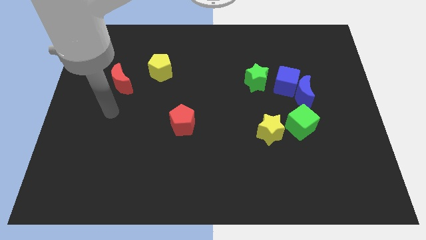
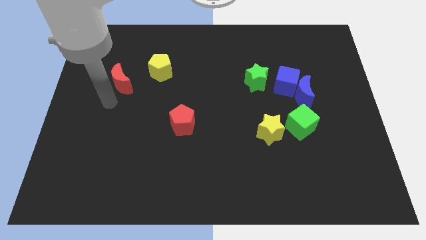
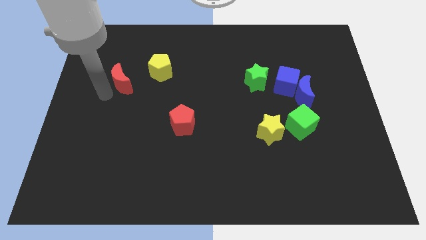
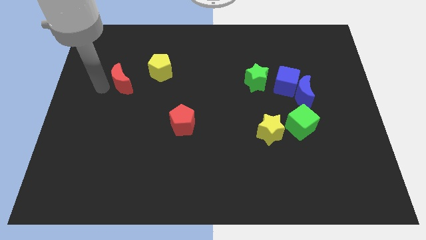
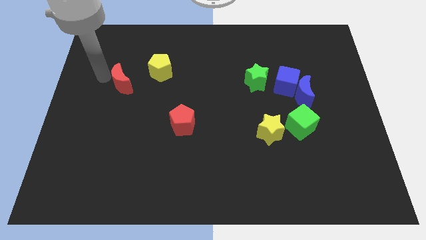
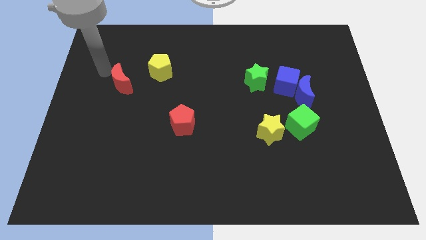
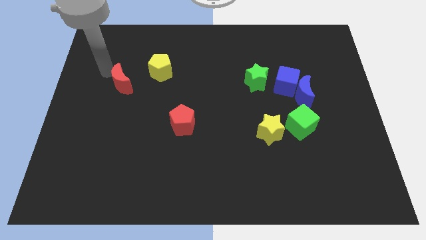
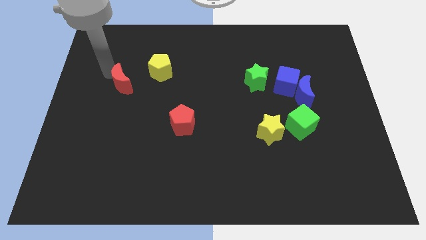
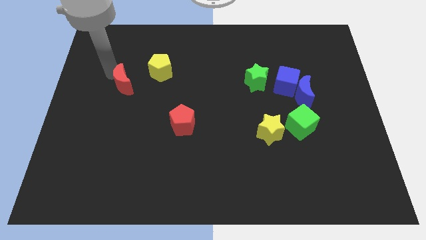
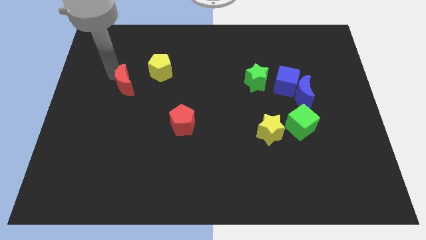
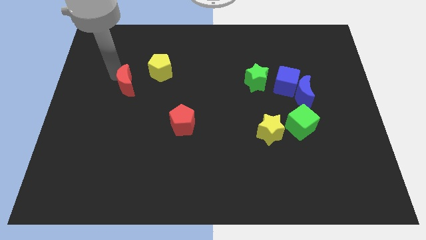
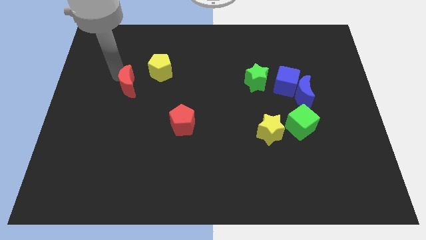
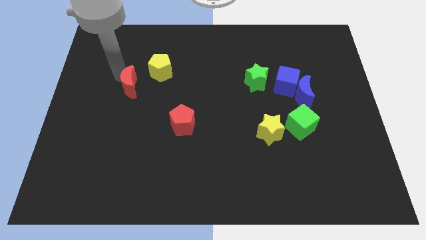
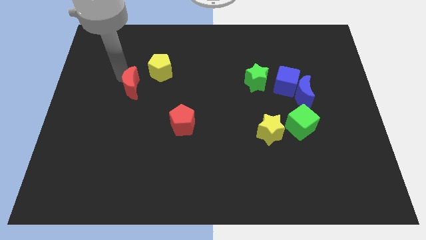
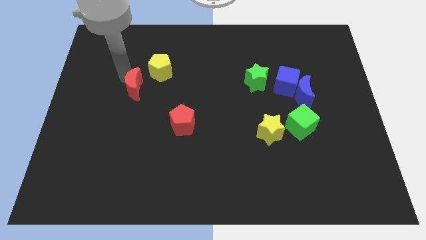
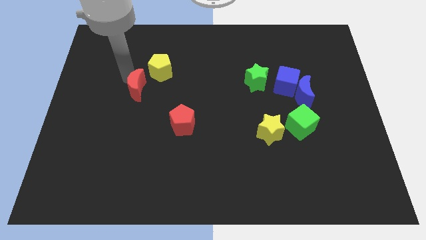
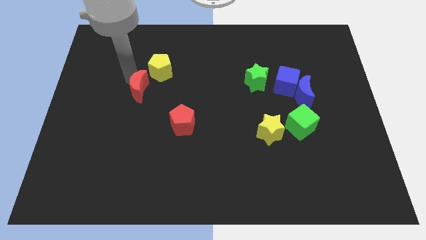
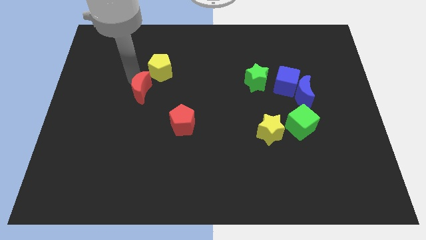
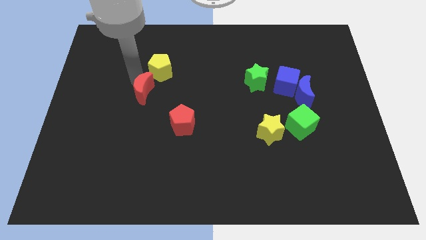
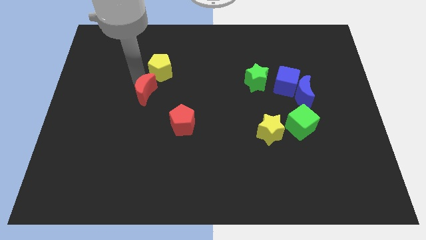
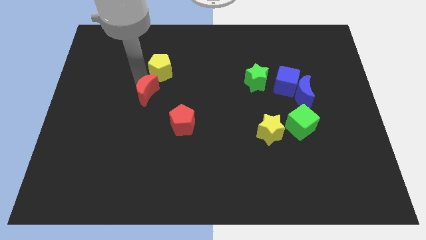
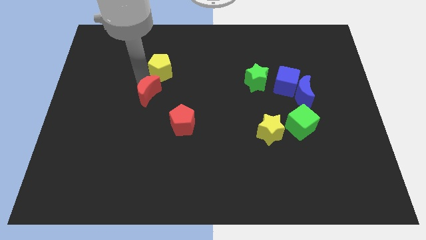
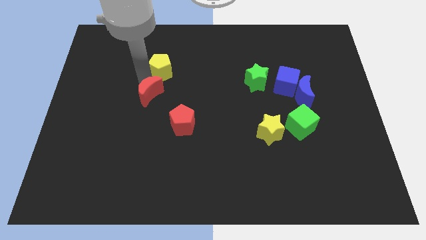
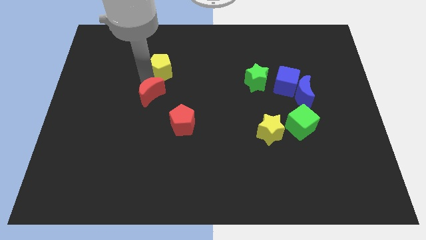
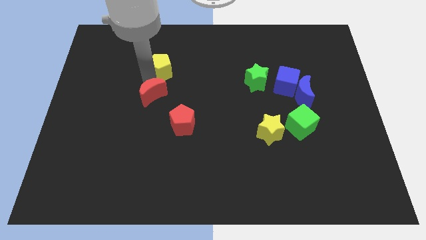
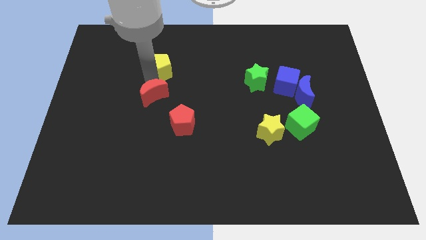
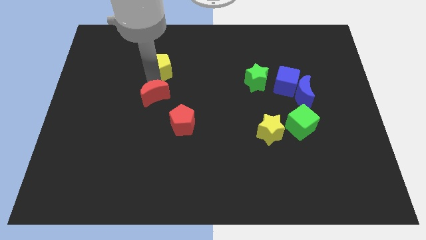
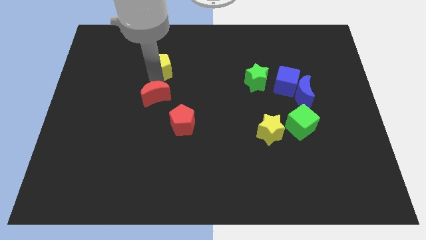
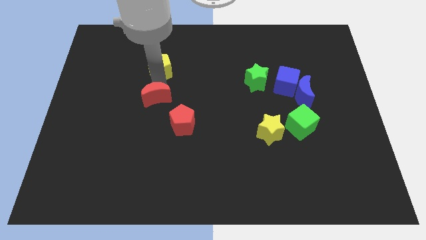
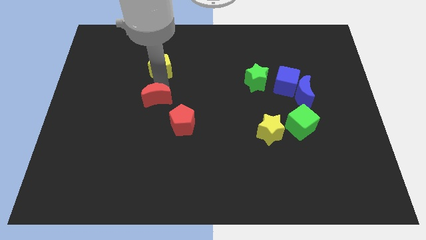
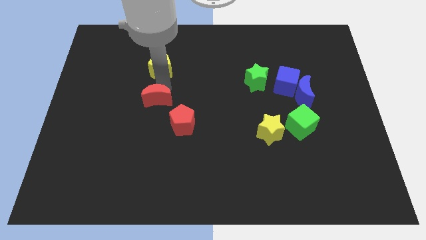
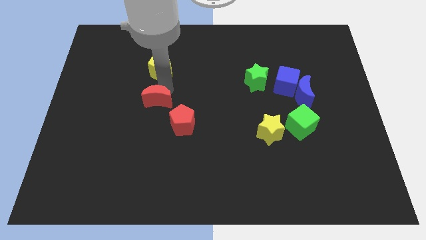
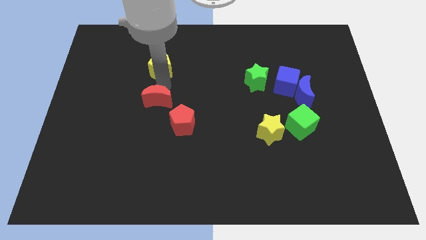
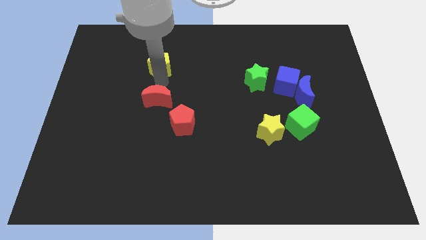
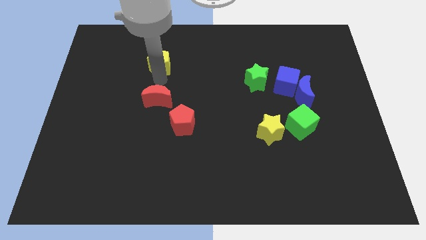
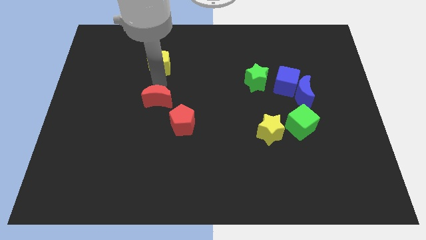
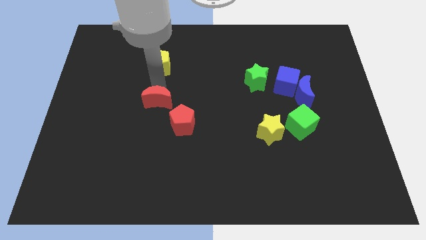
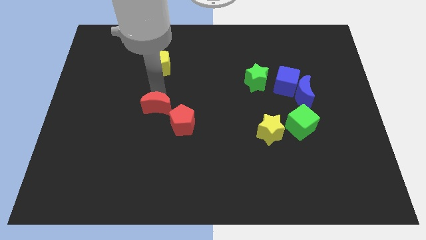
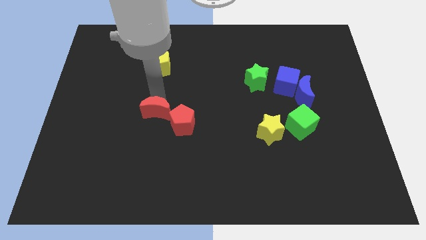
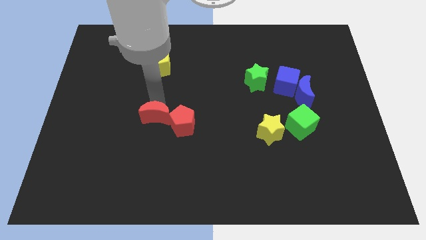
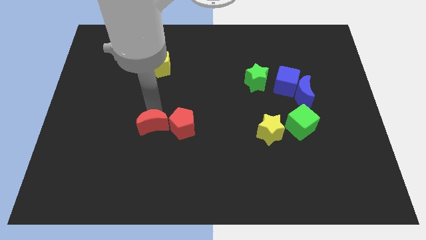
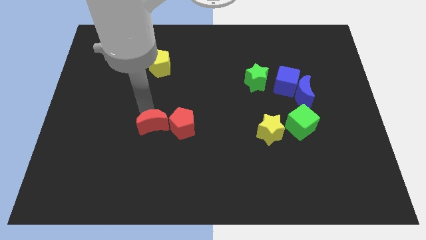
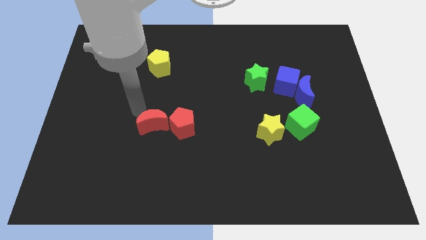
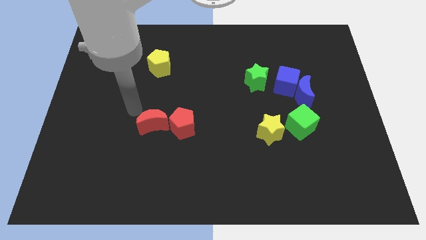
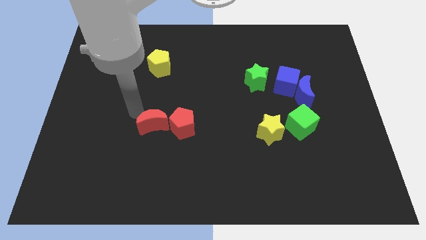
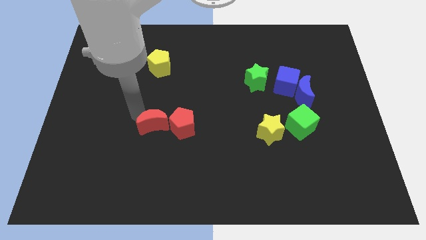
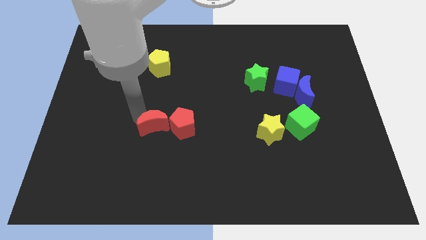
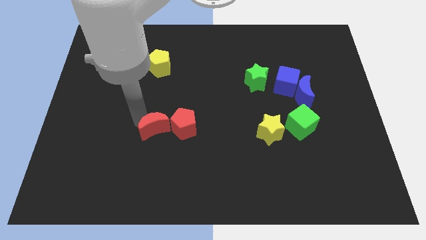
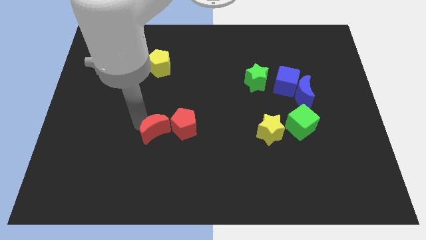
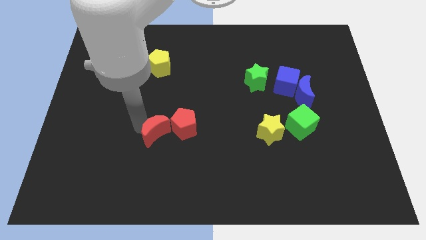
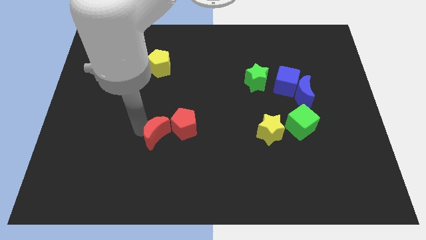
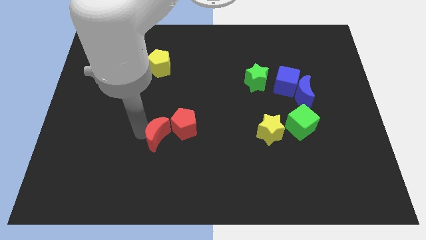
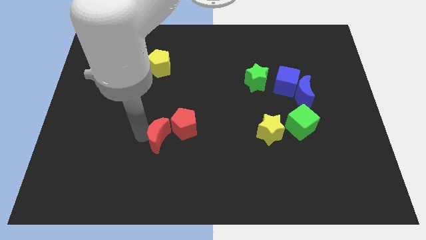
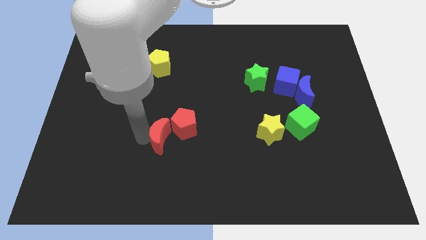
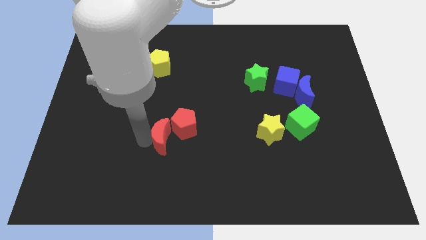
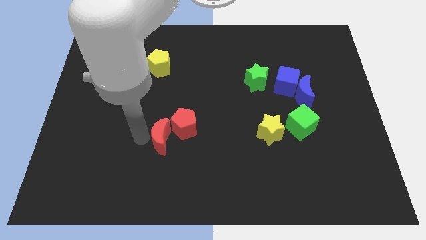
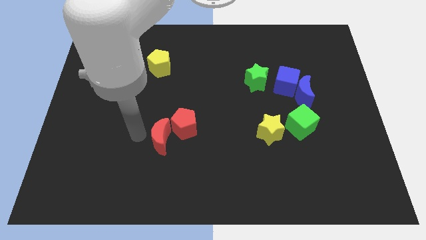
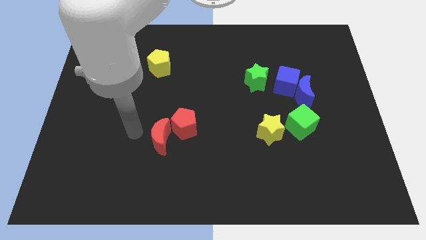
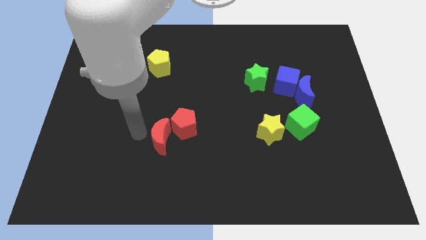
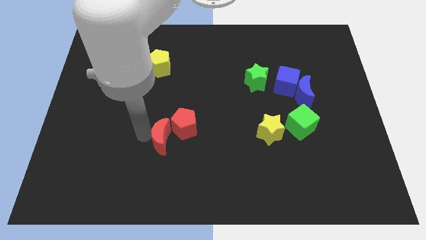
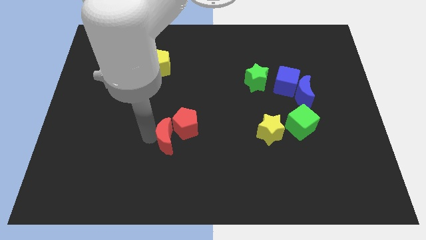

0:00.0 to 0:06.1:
push the red moon down and to the right

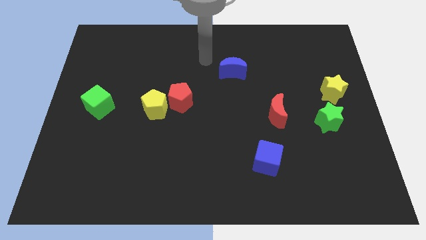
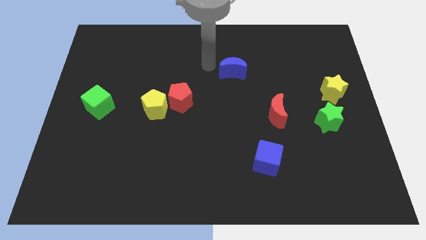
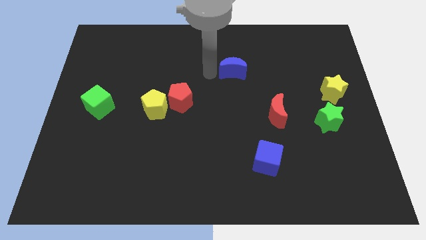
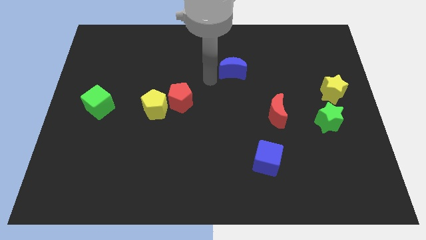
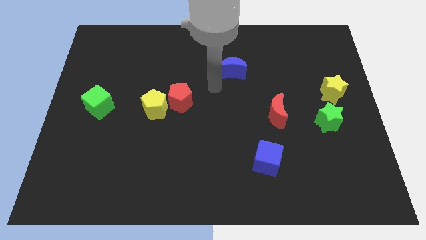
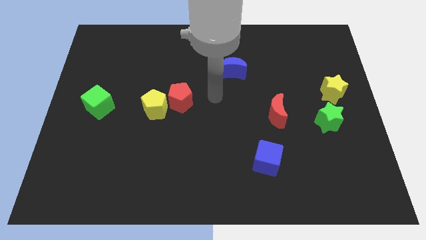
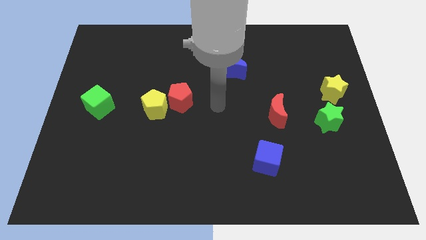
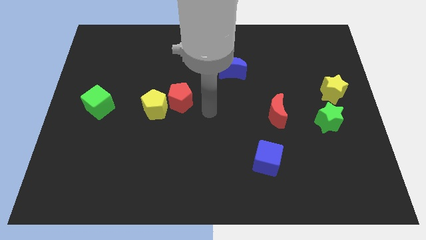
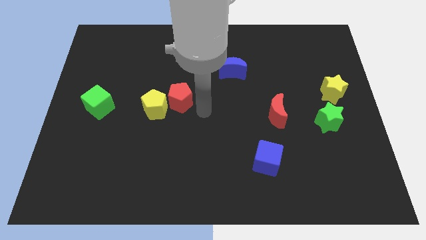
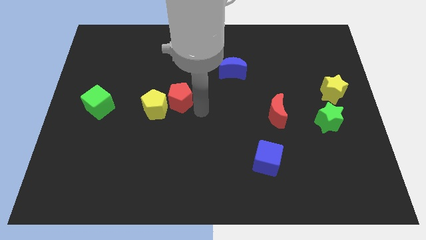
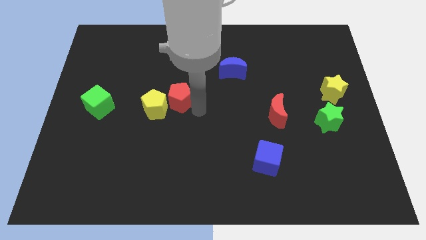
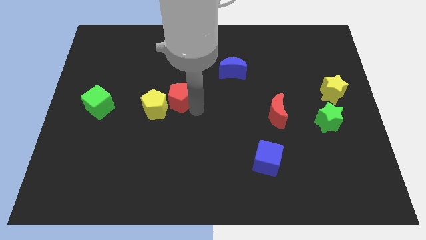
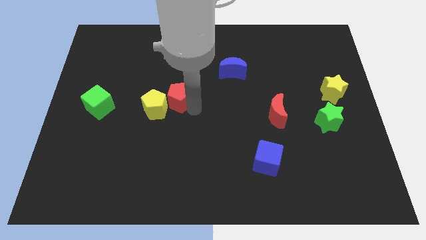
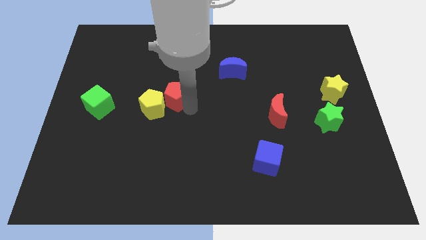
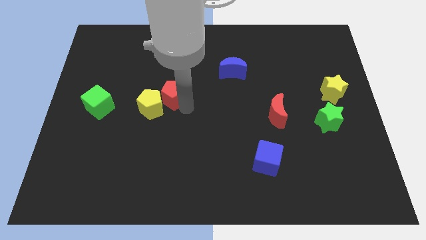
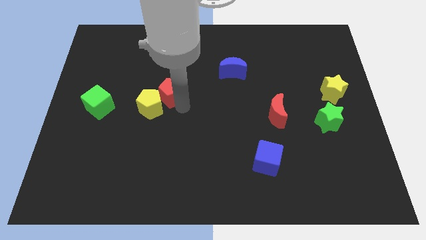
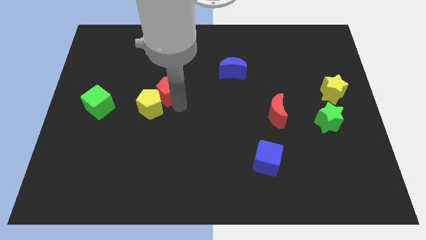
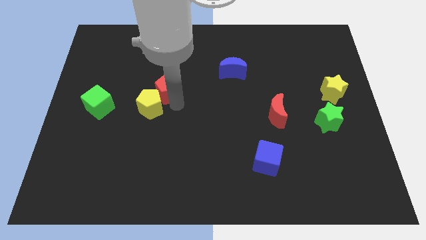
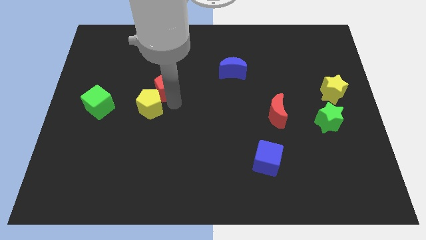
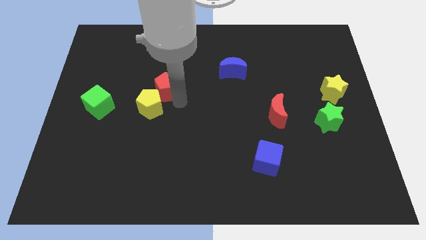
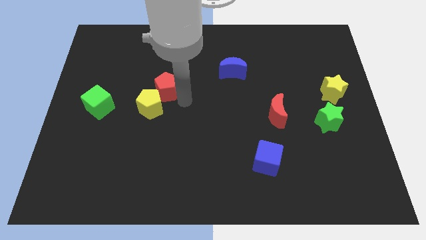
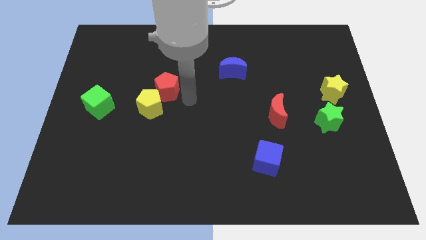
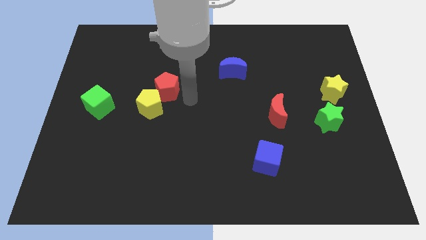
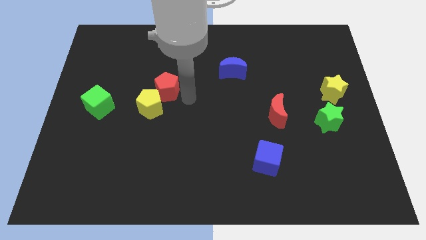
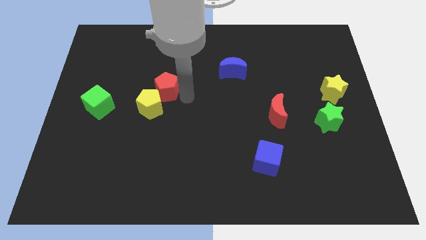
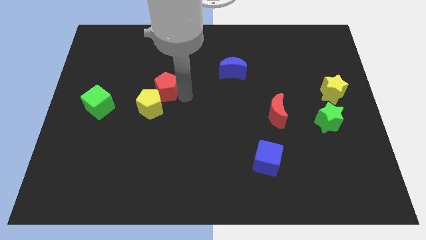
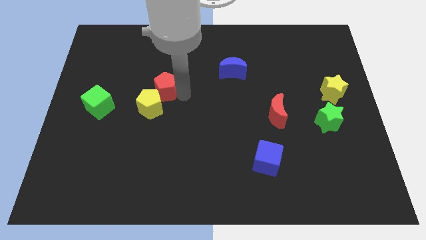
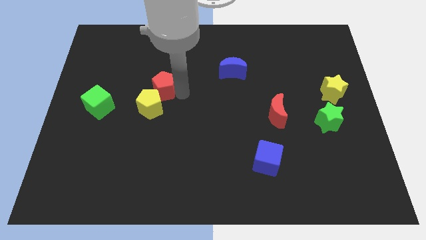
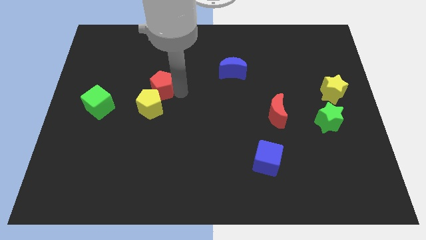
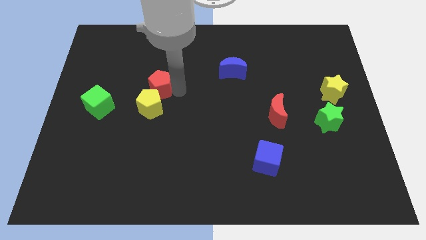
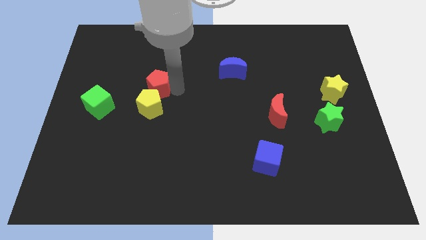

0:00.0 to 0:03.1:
slightly push the red pentagon diagonally upwards and left
